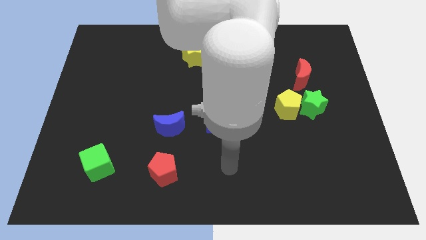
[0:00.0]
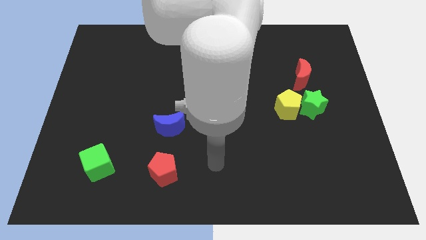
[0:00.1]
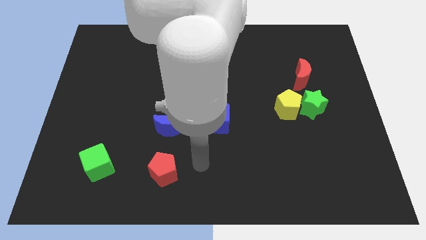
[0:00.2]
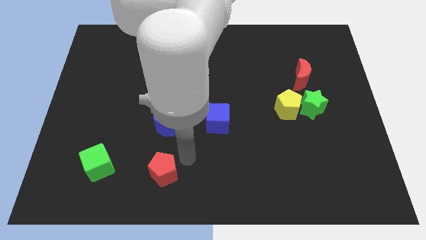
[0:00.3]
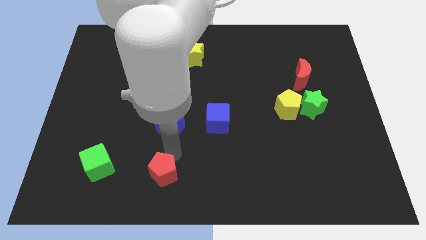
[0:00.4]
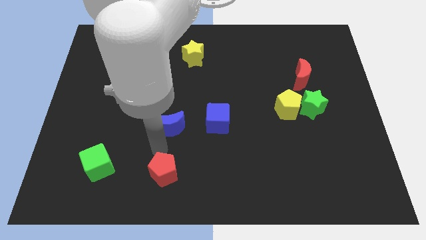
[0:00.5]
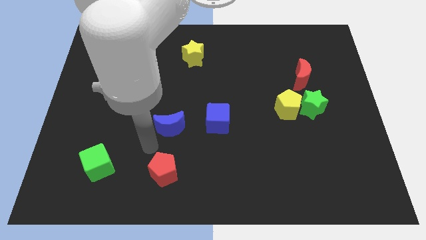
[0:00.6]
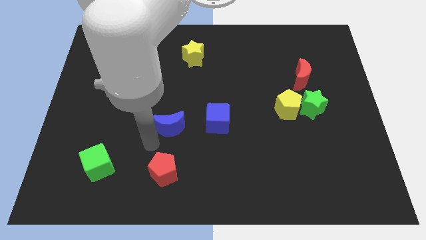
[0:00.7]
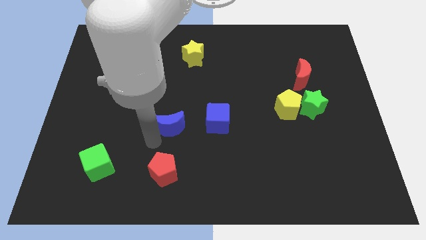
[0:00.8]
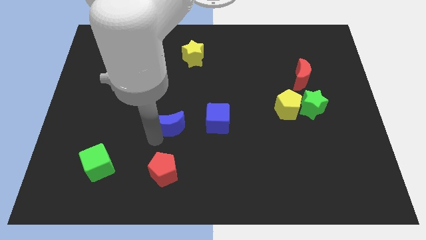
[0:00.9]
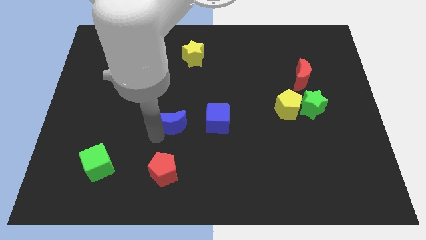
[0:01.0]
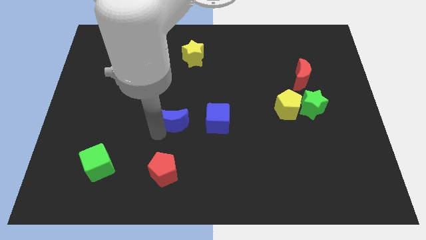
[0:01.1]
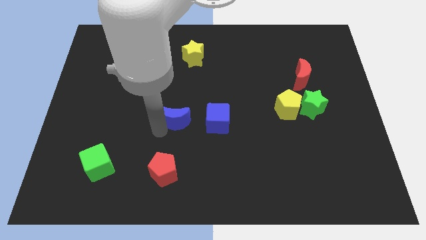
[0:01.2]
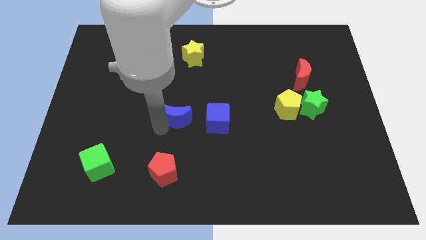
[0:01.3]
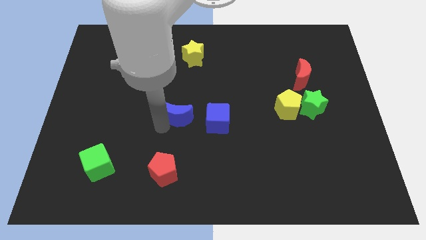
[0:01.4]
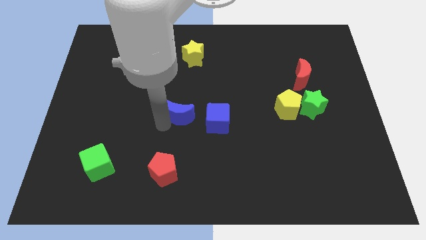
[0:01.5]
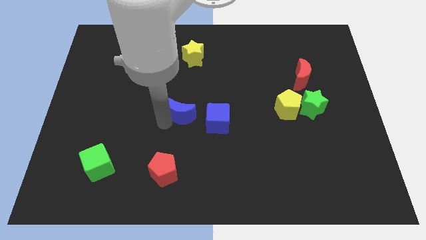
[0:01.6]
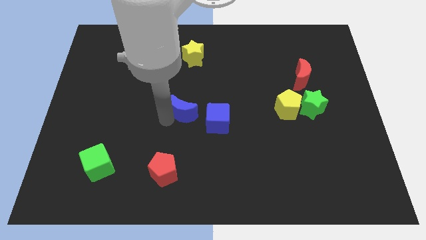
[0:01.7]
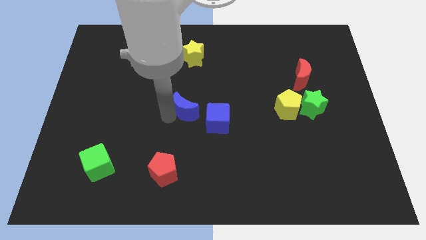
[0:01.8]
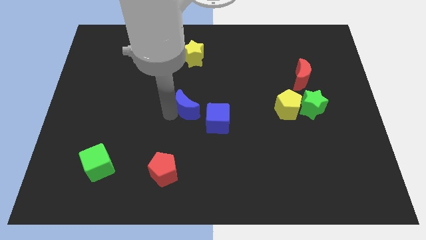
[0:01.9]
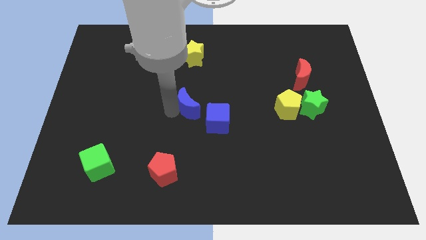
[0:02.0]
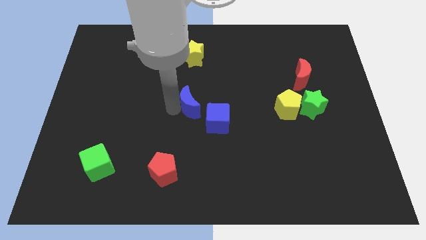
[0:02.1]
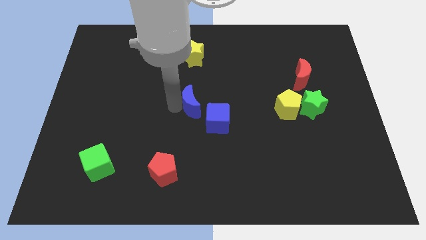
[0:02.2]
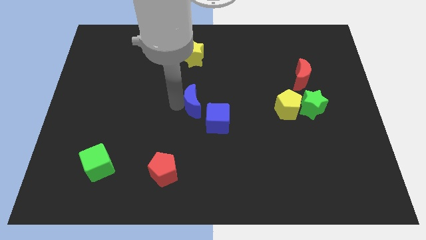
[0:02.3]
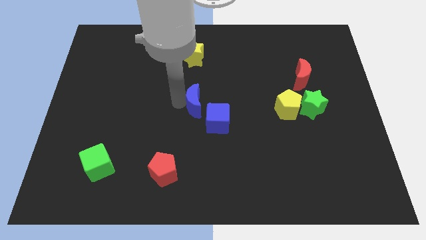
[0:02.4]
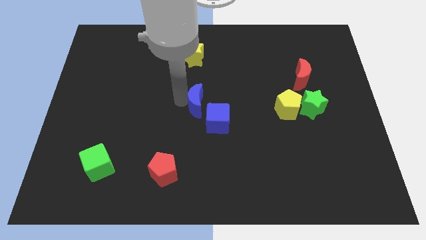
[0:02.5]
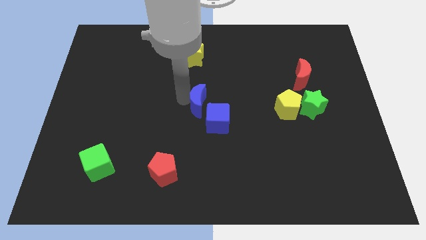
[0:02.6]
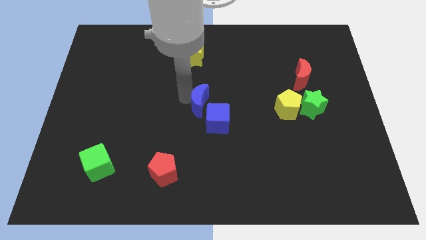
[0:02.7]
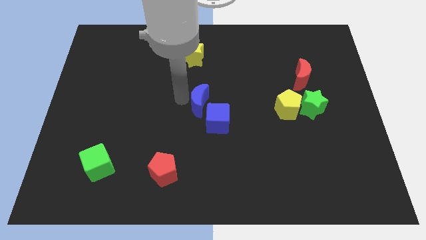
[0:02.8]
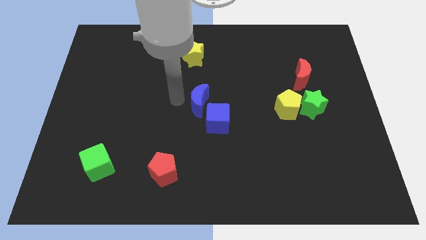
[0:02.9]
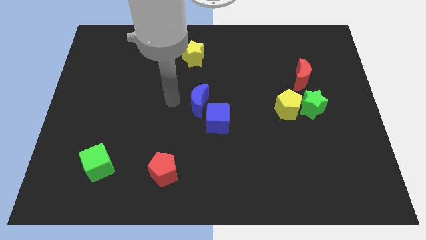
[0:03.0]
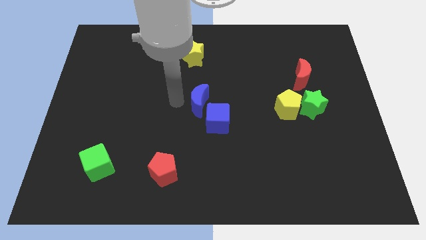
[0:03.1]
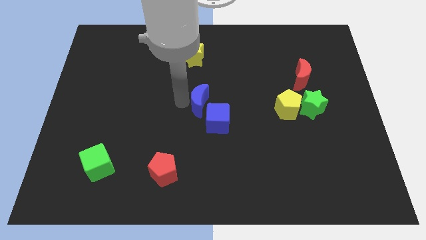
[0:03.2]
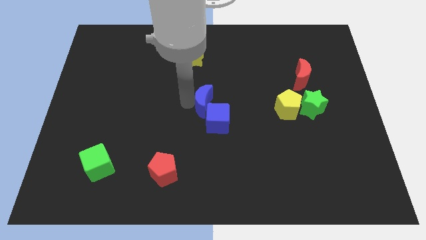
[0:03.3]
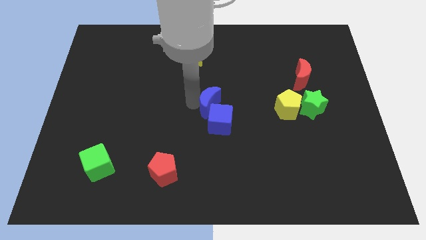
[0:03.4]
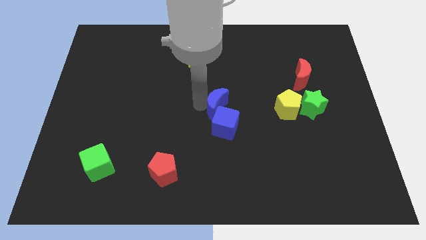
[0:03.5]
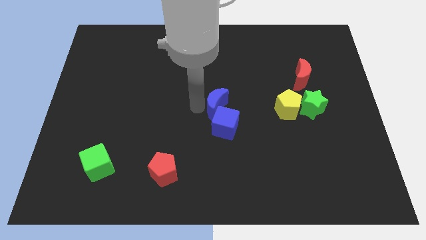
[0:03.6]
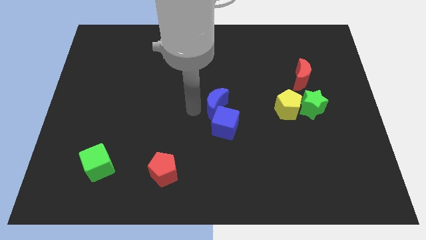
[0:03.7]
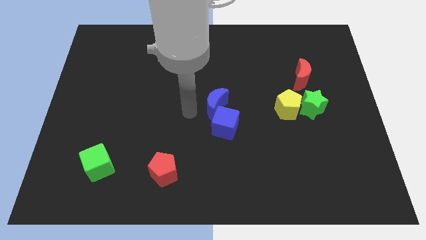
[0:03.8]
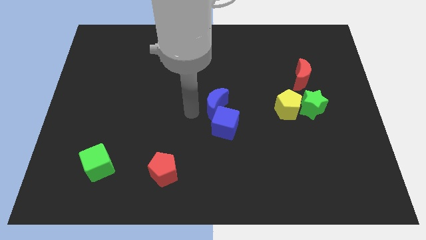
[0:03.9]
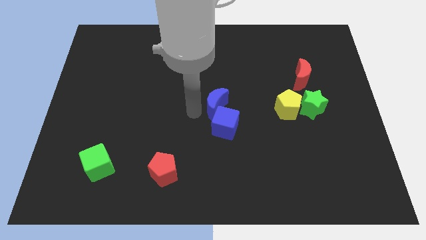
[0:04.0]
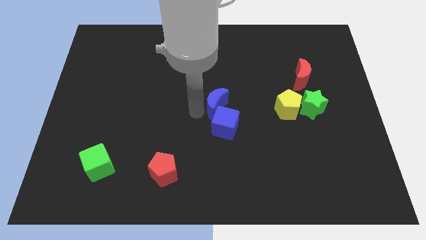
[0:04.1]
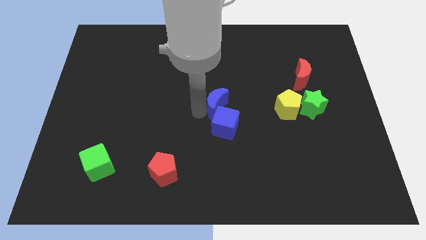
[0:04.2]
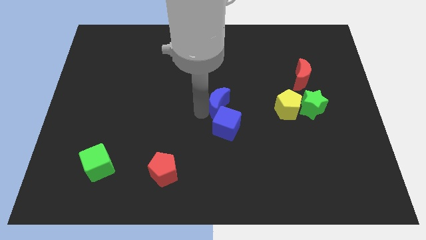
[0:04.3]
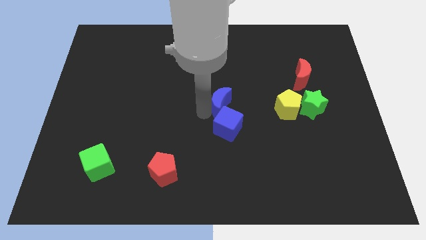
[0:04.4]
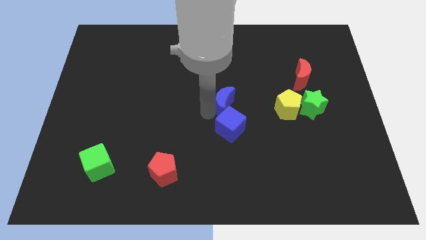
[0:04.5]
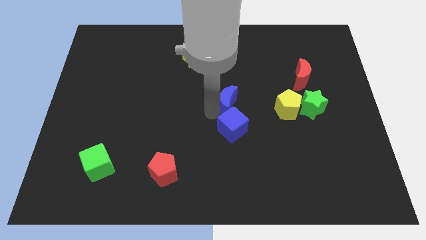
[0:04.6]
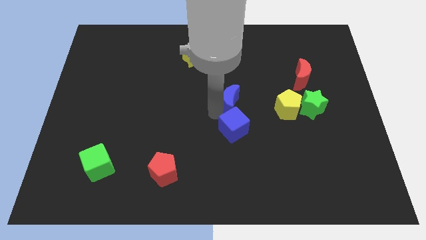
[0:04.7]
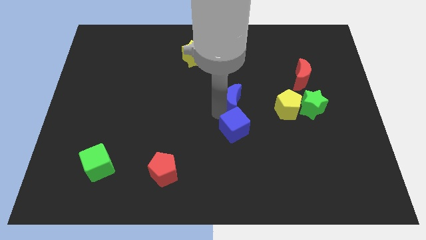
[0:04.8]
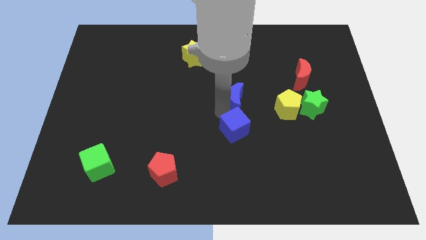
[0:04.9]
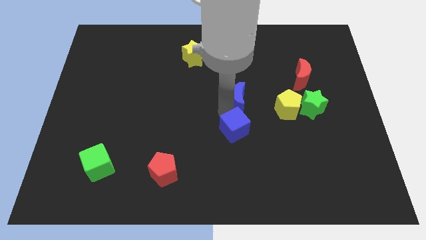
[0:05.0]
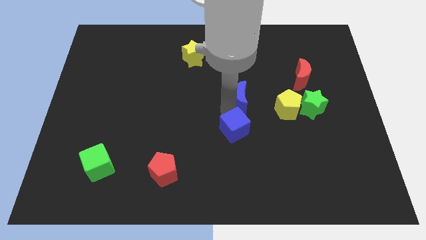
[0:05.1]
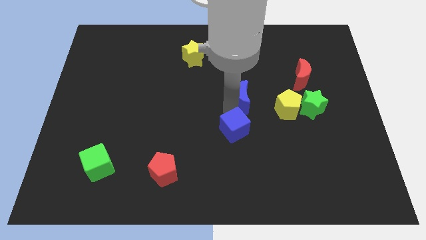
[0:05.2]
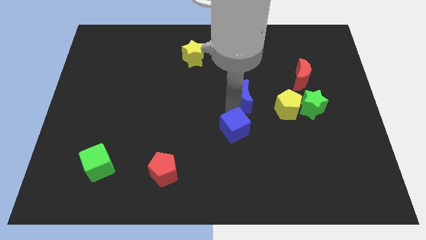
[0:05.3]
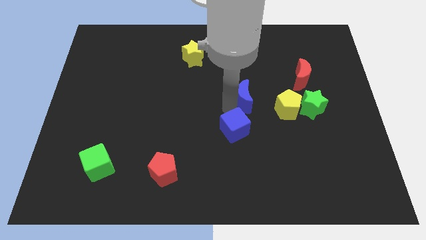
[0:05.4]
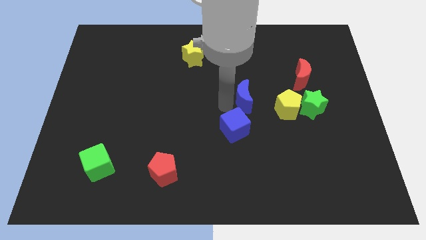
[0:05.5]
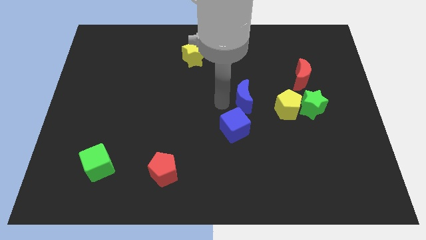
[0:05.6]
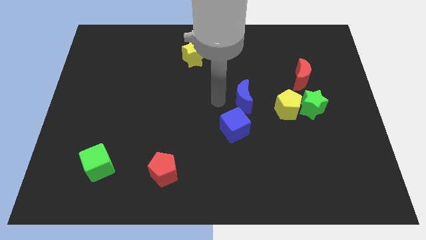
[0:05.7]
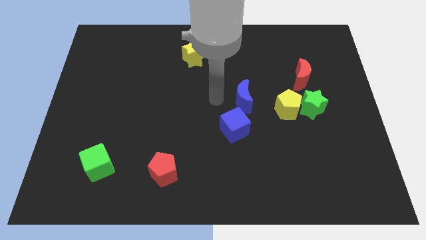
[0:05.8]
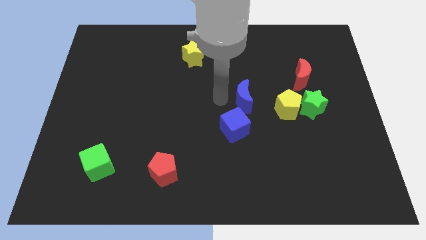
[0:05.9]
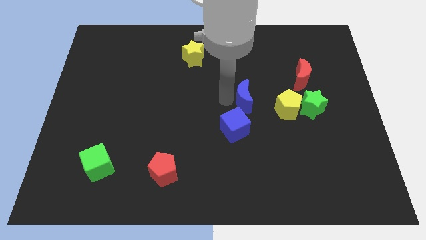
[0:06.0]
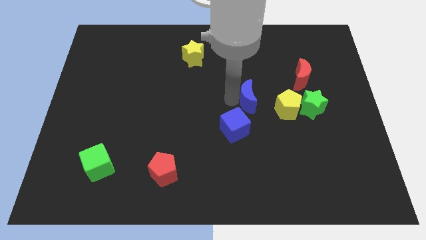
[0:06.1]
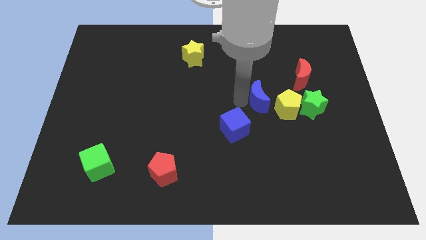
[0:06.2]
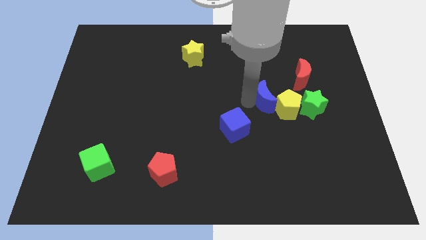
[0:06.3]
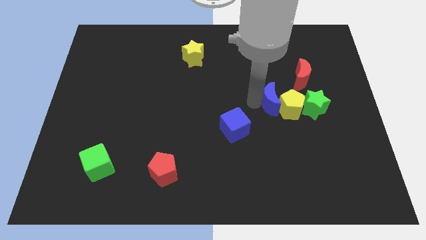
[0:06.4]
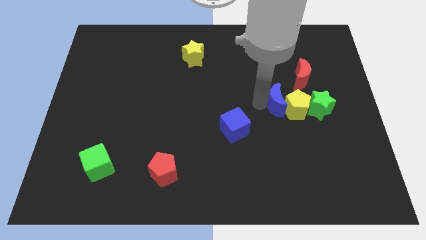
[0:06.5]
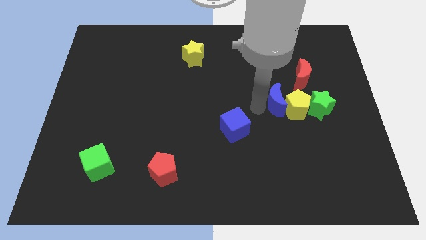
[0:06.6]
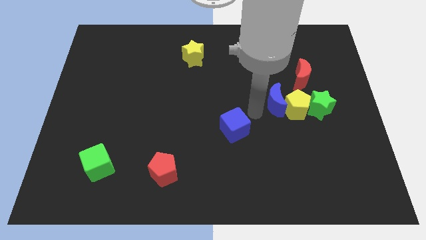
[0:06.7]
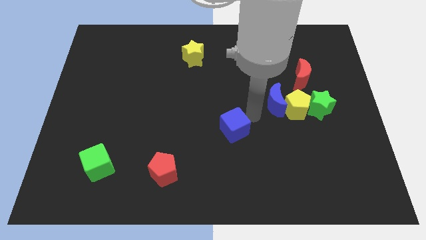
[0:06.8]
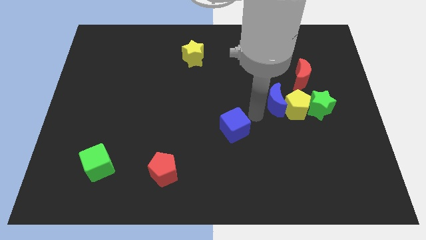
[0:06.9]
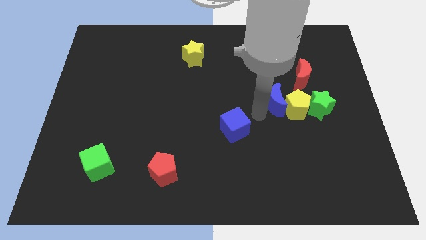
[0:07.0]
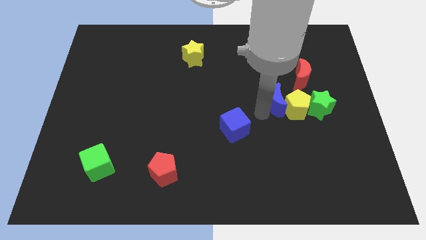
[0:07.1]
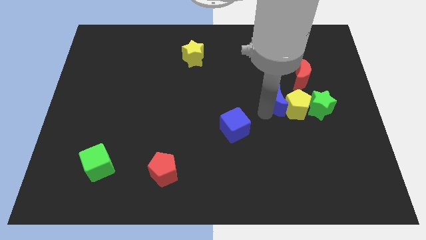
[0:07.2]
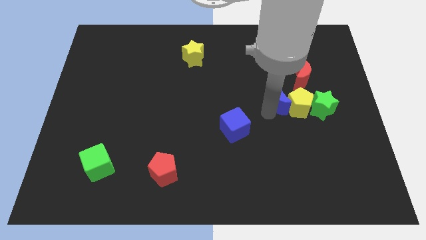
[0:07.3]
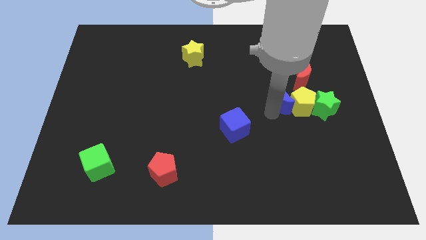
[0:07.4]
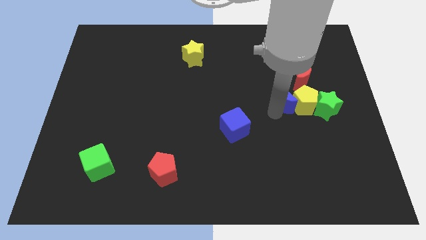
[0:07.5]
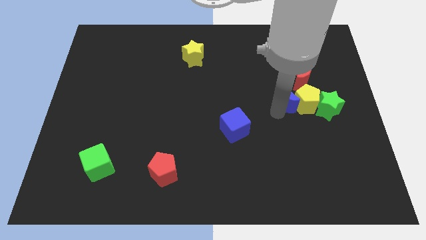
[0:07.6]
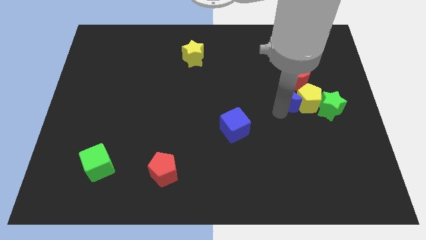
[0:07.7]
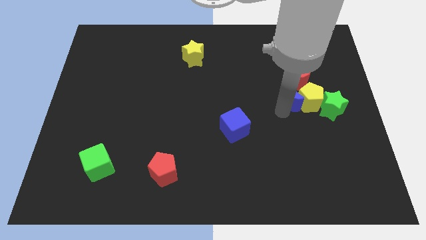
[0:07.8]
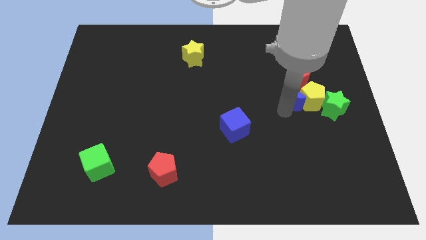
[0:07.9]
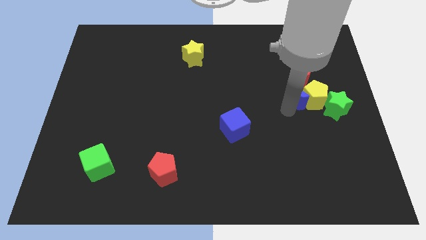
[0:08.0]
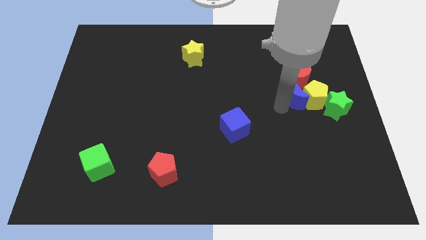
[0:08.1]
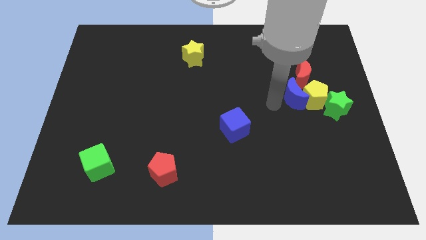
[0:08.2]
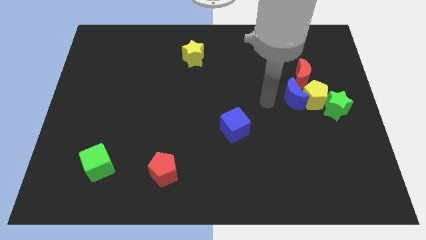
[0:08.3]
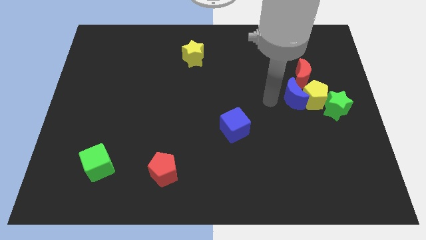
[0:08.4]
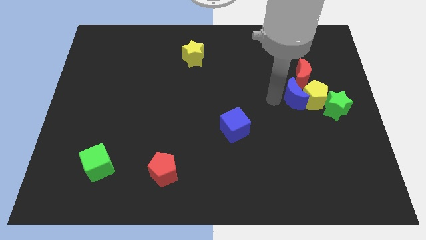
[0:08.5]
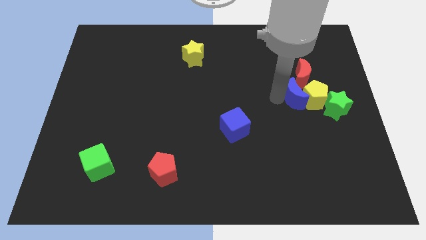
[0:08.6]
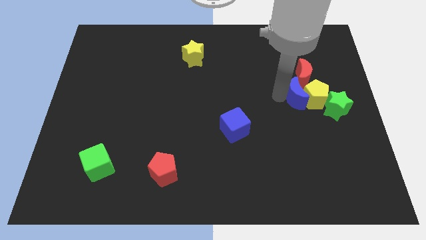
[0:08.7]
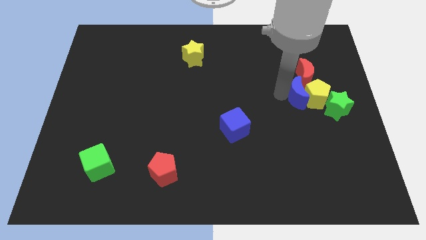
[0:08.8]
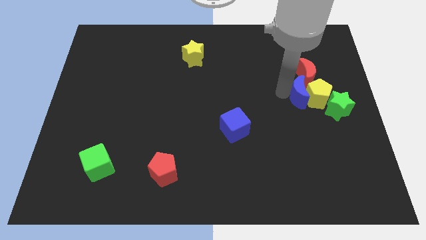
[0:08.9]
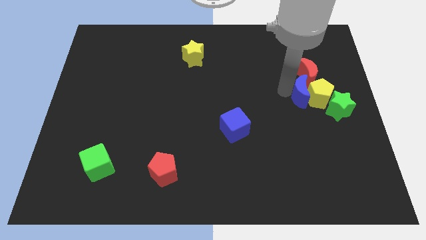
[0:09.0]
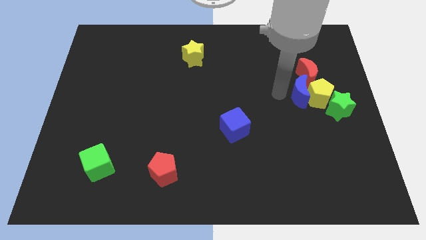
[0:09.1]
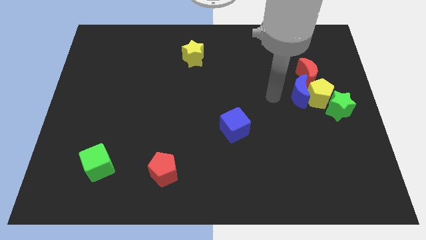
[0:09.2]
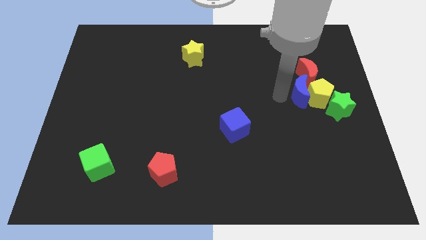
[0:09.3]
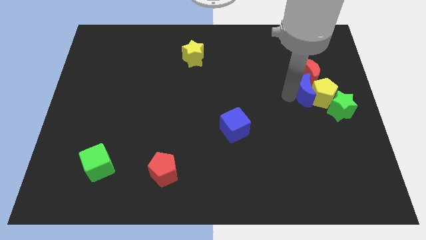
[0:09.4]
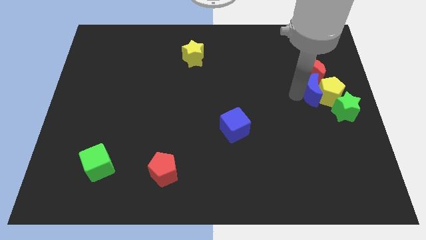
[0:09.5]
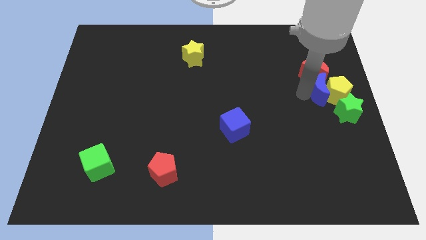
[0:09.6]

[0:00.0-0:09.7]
move the blue moon to the bottom right of the red moon
